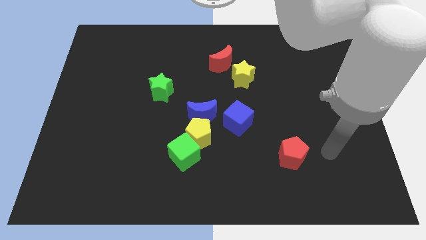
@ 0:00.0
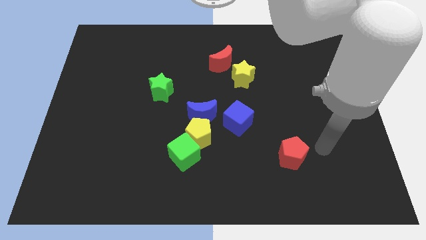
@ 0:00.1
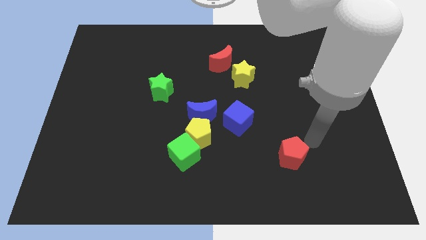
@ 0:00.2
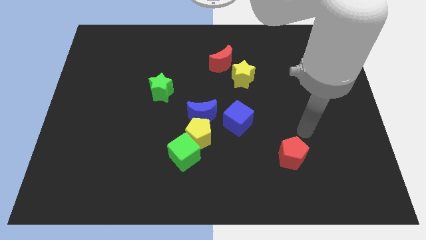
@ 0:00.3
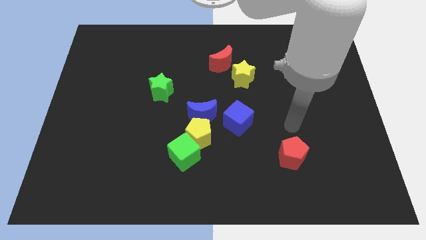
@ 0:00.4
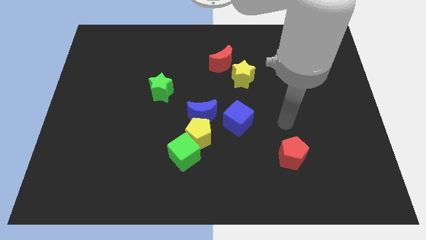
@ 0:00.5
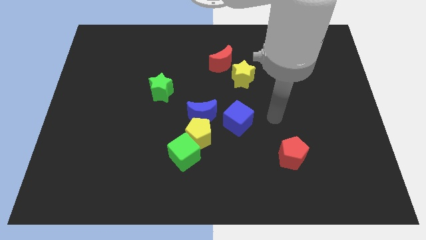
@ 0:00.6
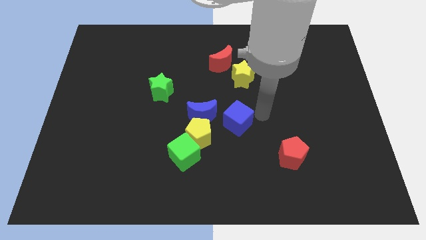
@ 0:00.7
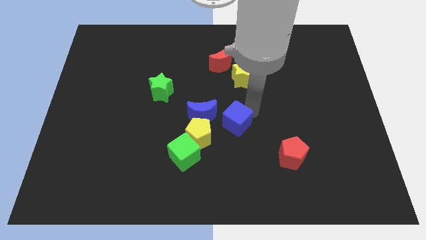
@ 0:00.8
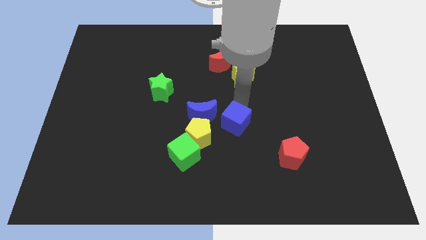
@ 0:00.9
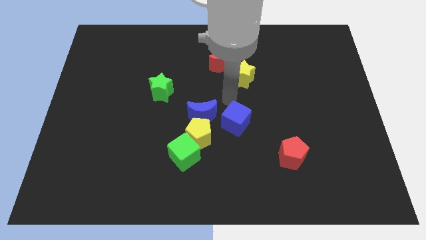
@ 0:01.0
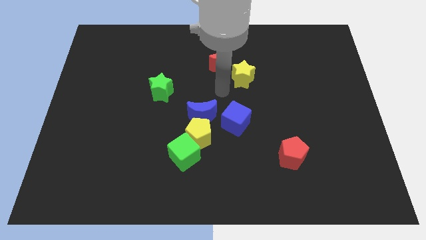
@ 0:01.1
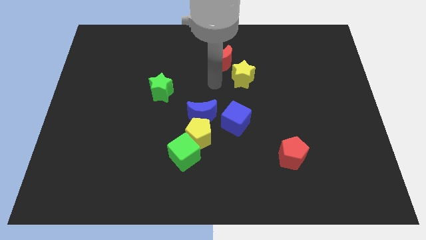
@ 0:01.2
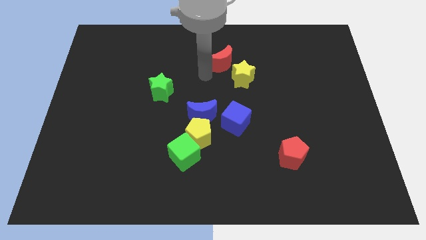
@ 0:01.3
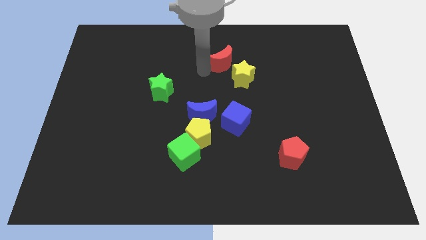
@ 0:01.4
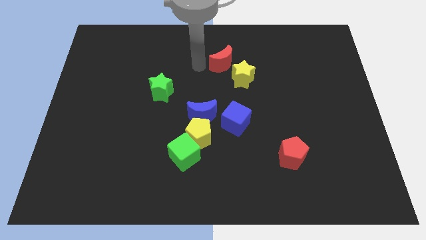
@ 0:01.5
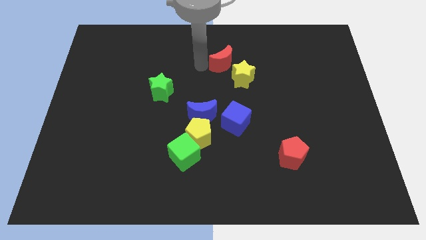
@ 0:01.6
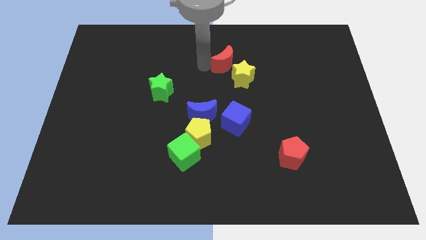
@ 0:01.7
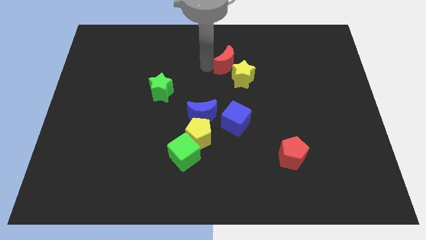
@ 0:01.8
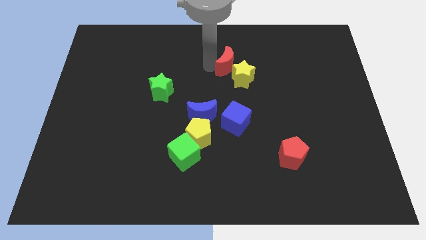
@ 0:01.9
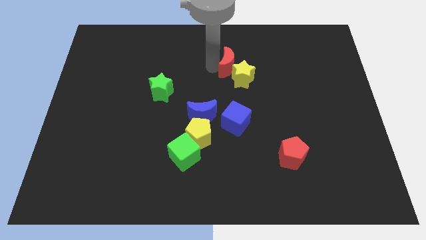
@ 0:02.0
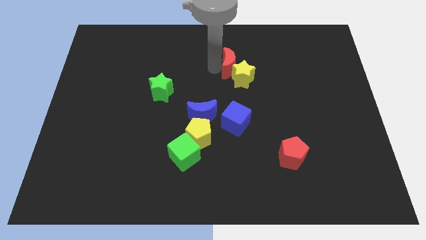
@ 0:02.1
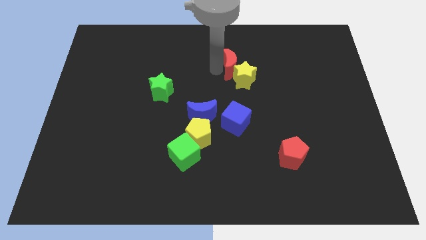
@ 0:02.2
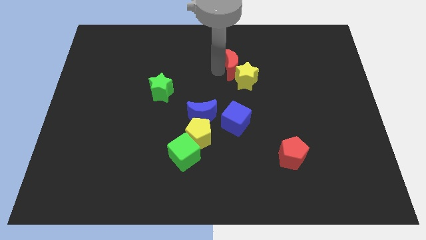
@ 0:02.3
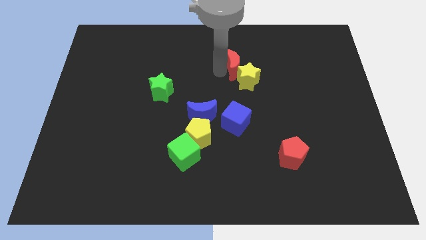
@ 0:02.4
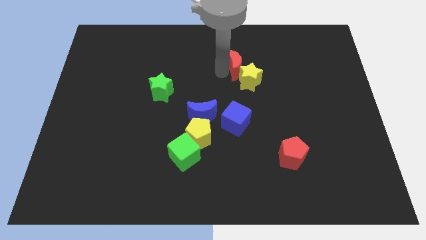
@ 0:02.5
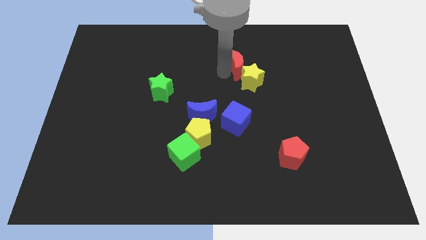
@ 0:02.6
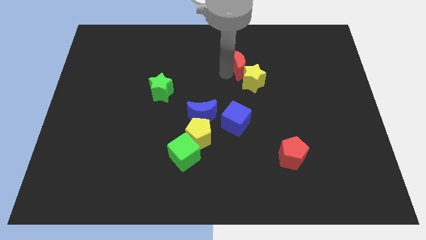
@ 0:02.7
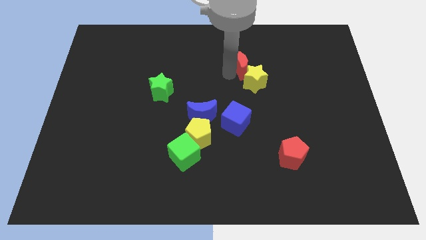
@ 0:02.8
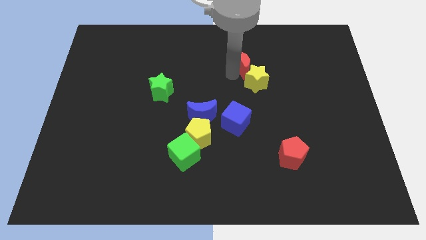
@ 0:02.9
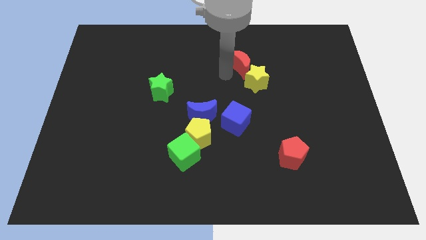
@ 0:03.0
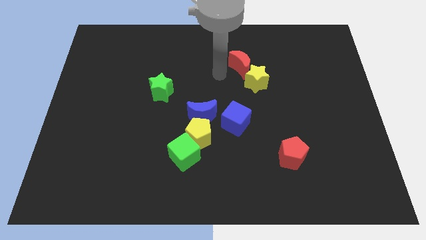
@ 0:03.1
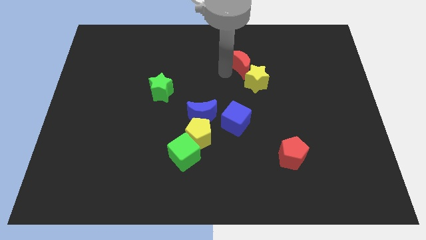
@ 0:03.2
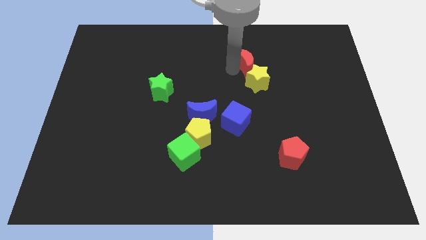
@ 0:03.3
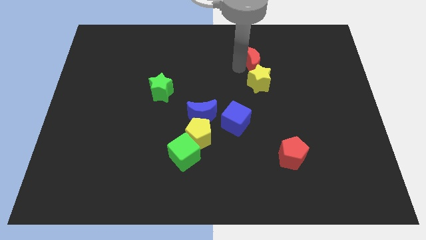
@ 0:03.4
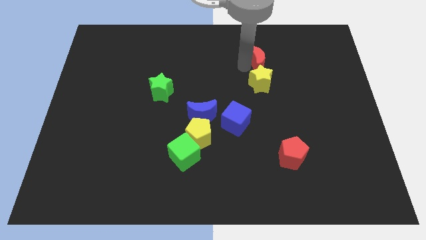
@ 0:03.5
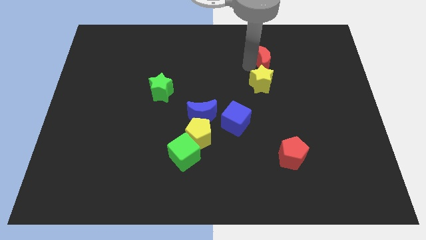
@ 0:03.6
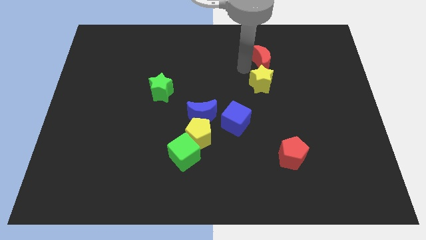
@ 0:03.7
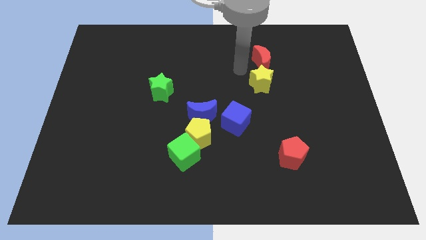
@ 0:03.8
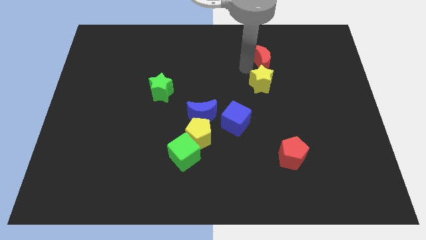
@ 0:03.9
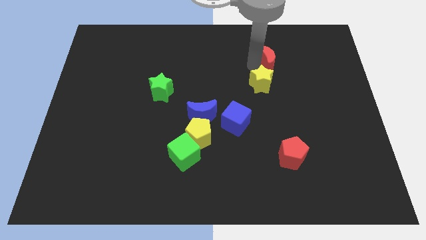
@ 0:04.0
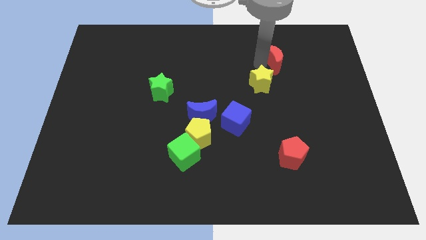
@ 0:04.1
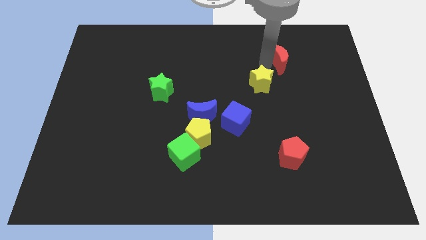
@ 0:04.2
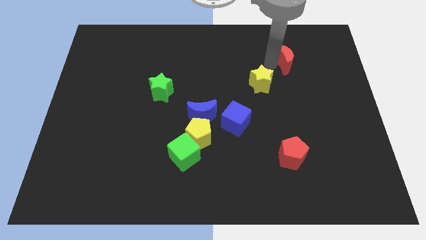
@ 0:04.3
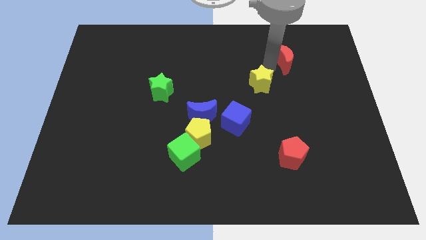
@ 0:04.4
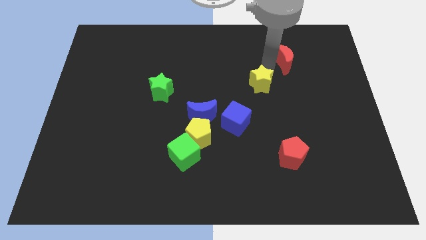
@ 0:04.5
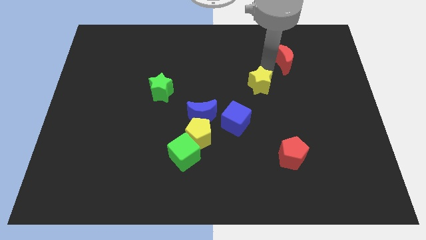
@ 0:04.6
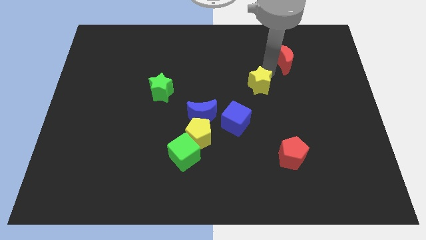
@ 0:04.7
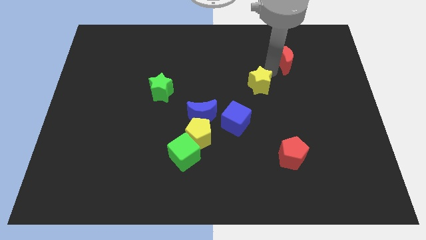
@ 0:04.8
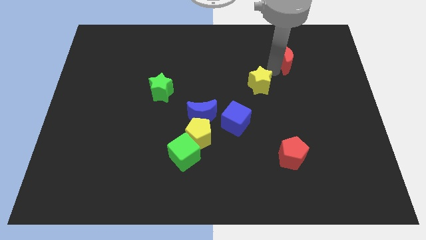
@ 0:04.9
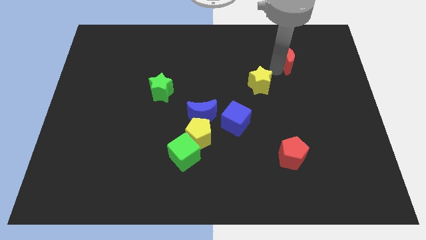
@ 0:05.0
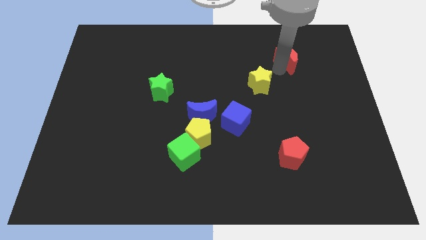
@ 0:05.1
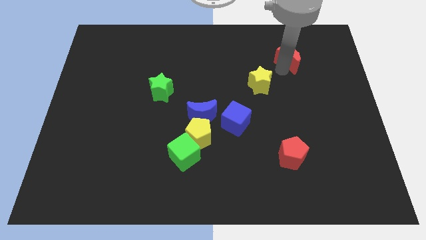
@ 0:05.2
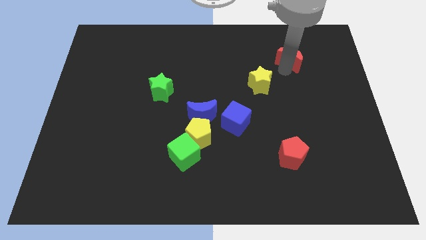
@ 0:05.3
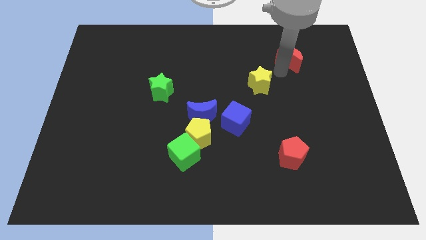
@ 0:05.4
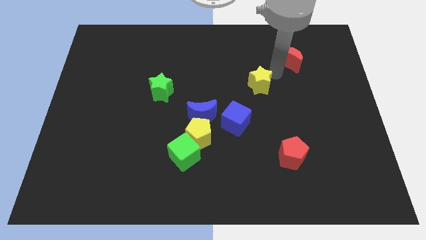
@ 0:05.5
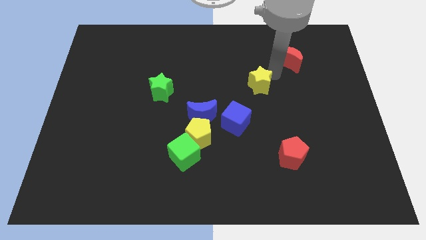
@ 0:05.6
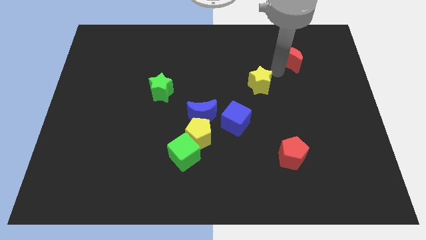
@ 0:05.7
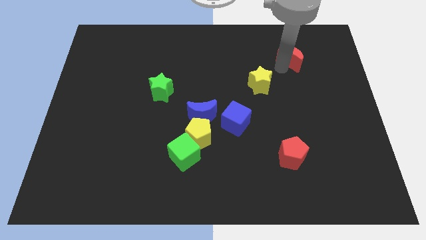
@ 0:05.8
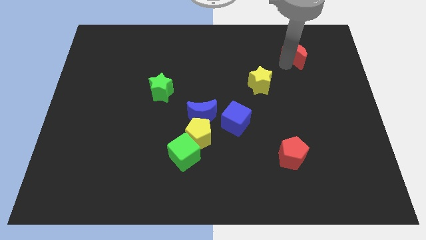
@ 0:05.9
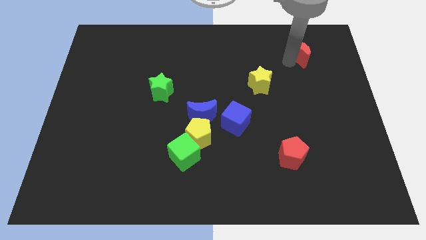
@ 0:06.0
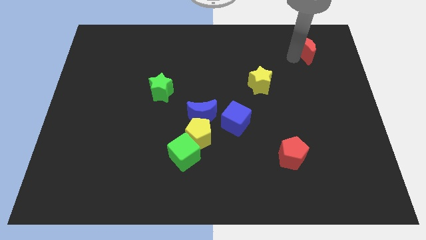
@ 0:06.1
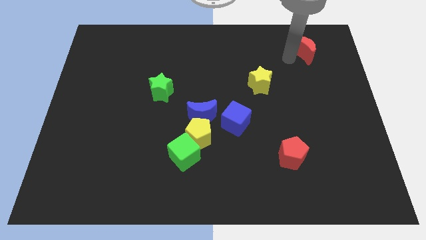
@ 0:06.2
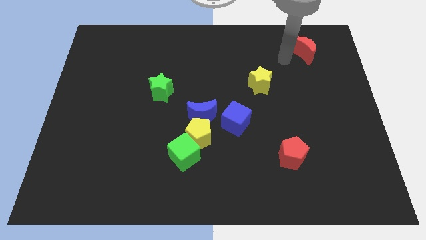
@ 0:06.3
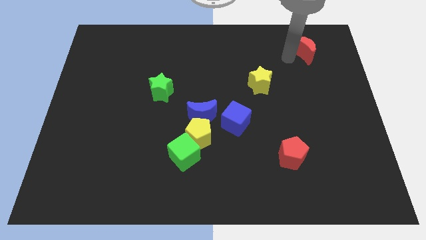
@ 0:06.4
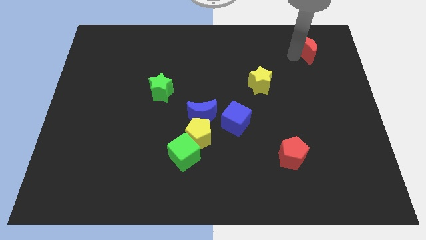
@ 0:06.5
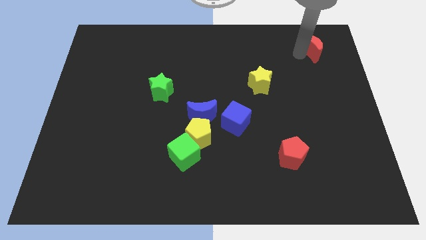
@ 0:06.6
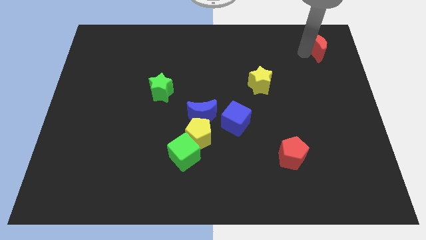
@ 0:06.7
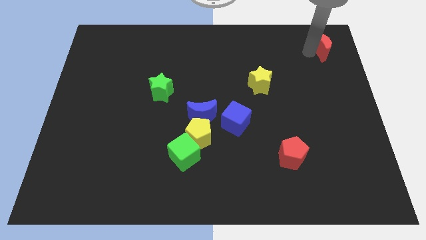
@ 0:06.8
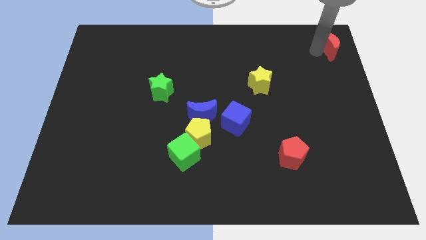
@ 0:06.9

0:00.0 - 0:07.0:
put the red moon to the upper right corner
